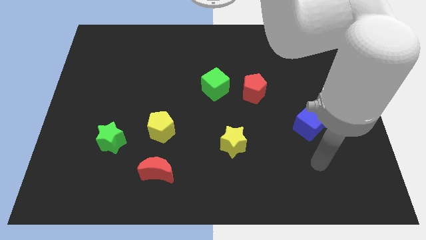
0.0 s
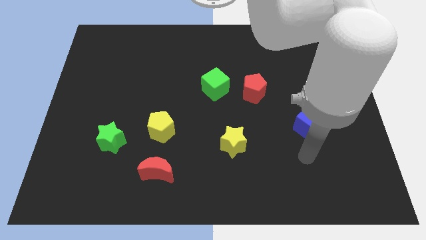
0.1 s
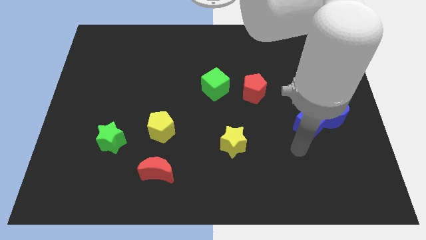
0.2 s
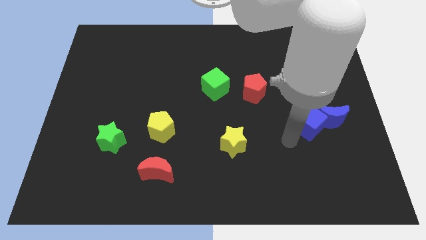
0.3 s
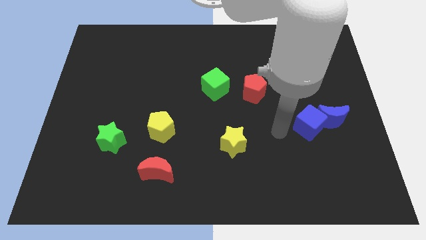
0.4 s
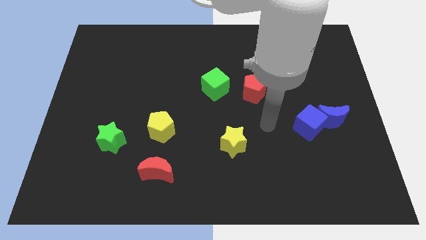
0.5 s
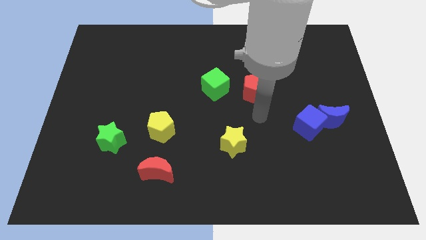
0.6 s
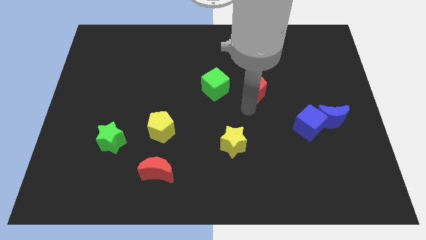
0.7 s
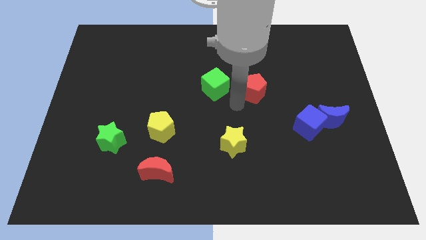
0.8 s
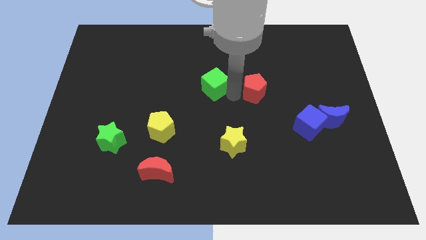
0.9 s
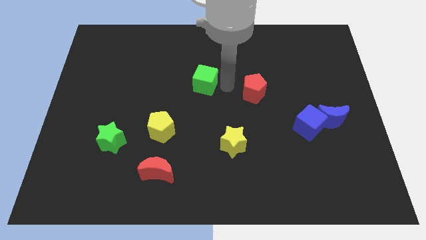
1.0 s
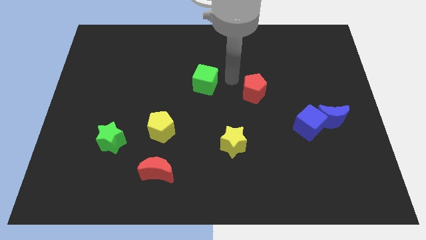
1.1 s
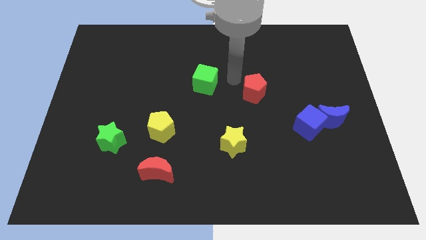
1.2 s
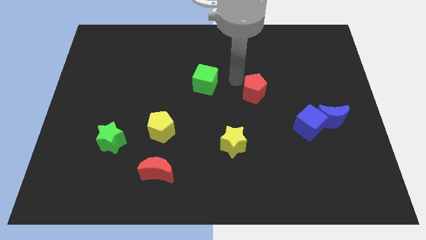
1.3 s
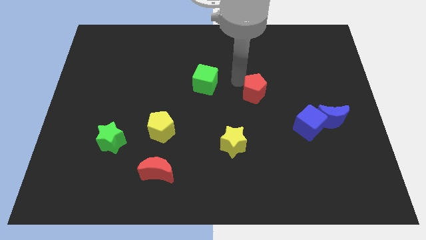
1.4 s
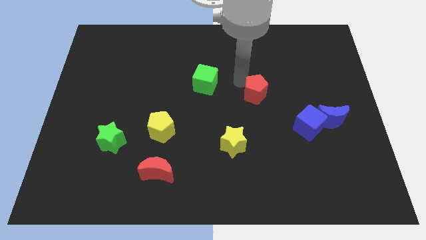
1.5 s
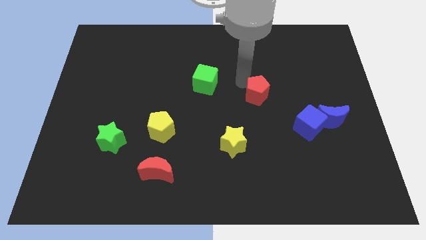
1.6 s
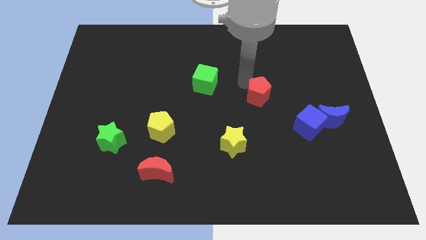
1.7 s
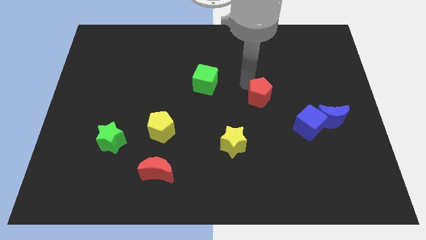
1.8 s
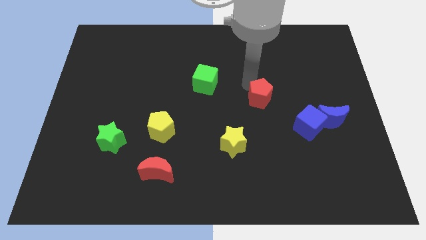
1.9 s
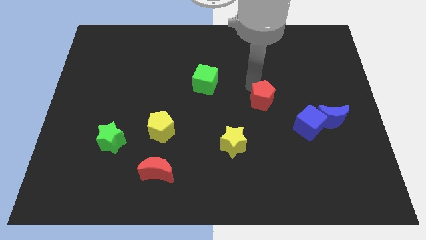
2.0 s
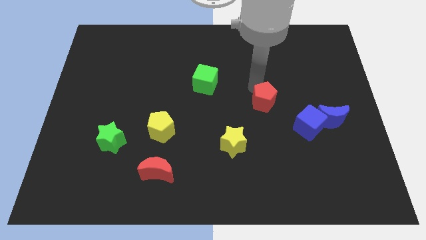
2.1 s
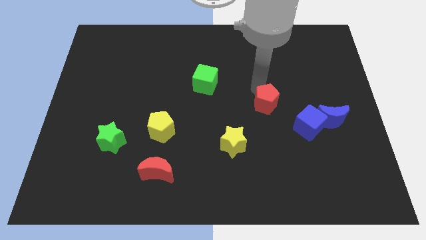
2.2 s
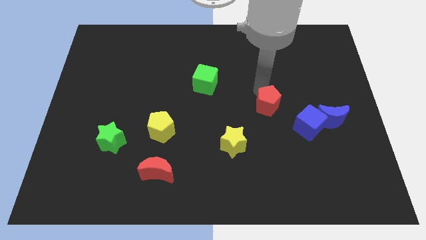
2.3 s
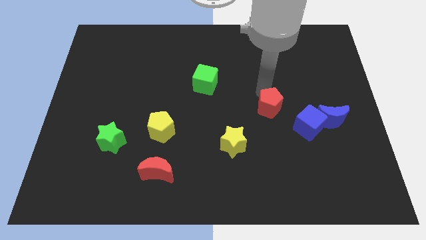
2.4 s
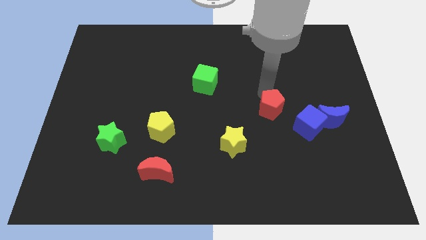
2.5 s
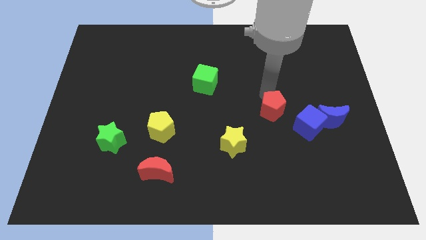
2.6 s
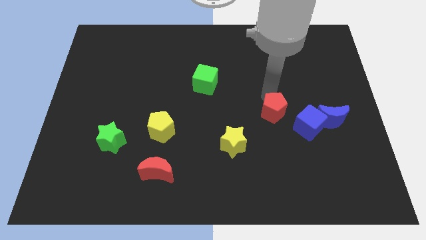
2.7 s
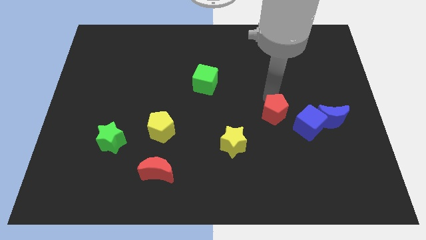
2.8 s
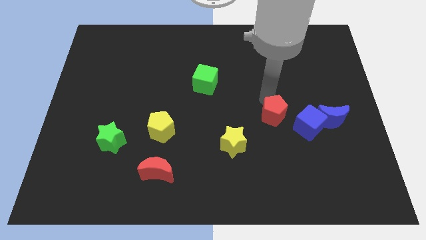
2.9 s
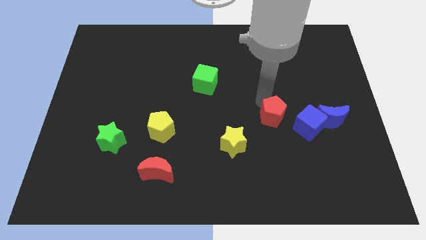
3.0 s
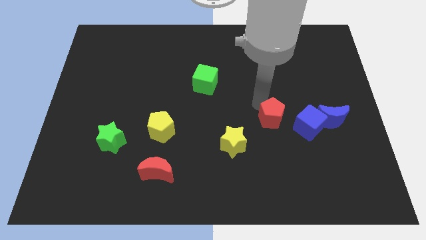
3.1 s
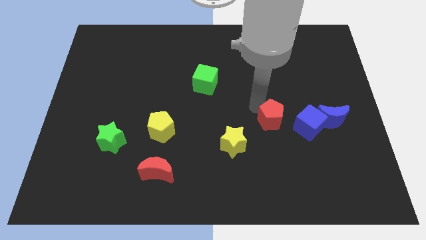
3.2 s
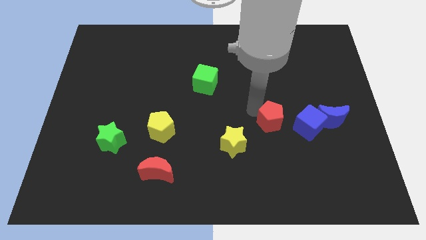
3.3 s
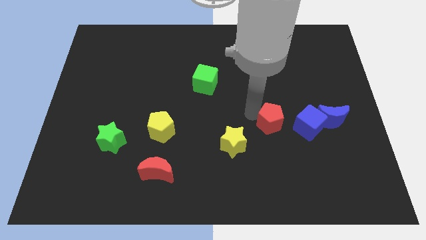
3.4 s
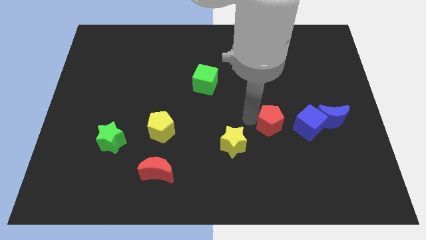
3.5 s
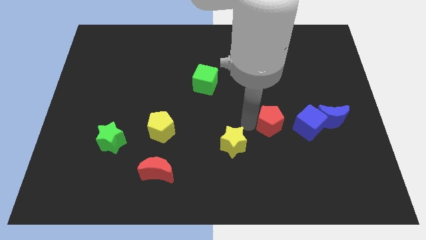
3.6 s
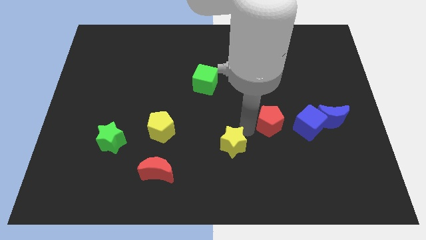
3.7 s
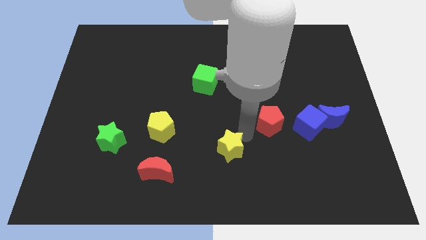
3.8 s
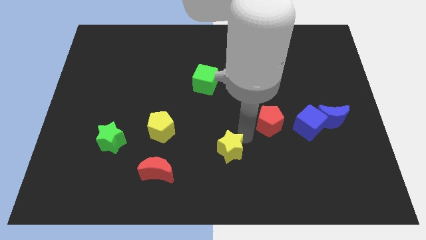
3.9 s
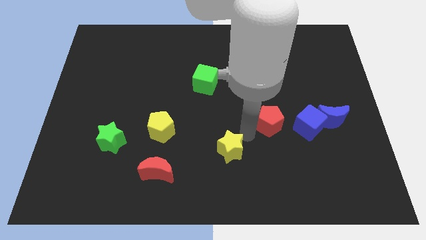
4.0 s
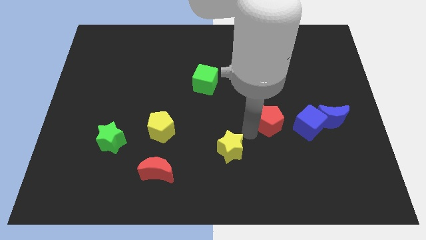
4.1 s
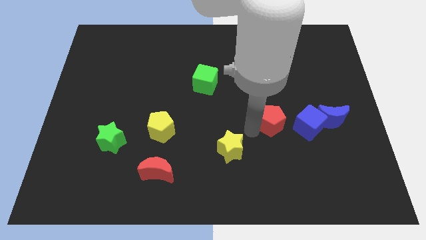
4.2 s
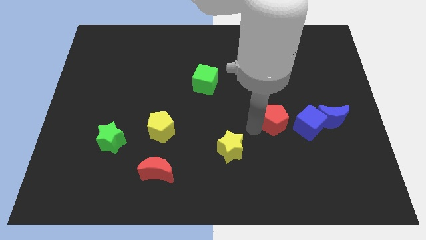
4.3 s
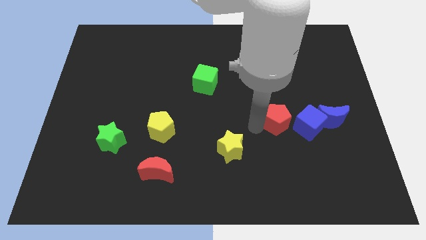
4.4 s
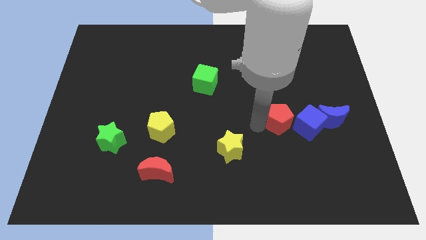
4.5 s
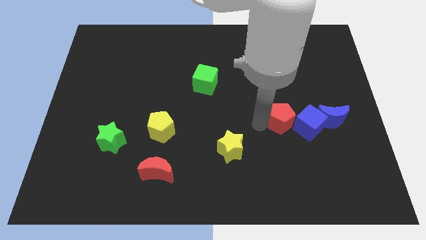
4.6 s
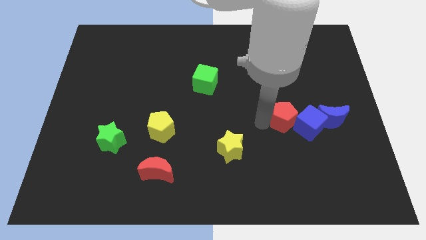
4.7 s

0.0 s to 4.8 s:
put the red pentagon close to the blue cube

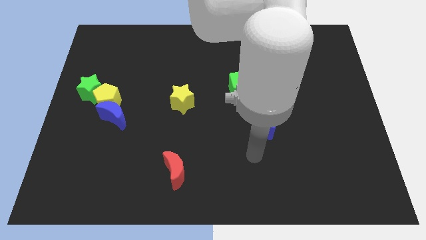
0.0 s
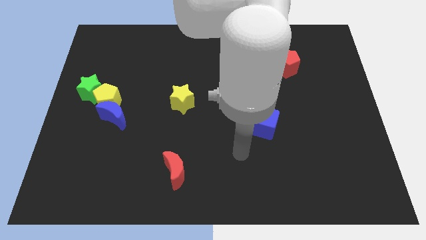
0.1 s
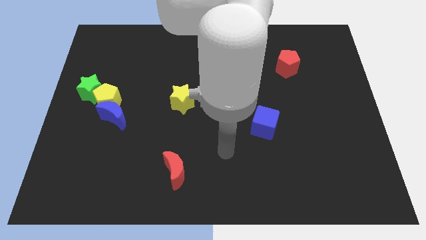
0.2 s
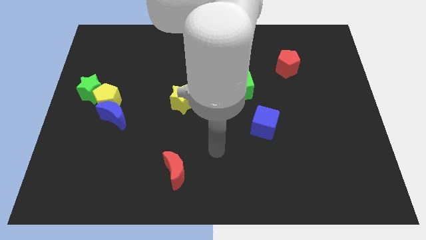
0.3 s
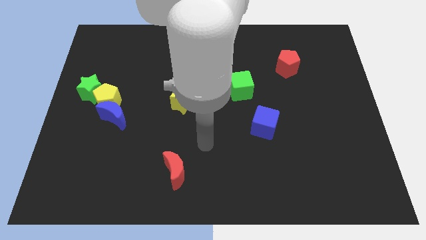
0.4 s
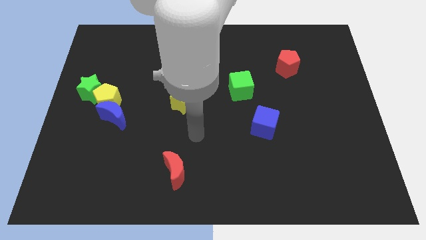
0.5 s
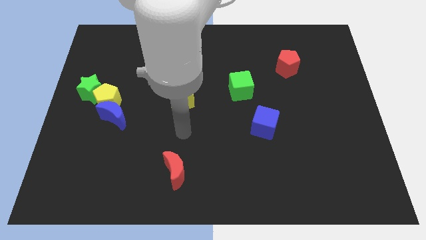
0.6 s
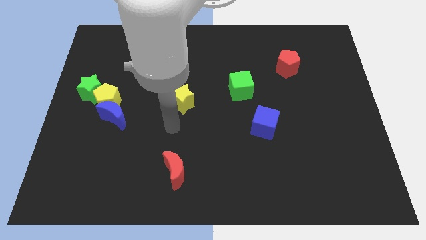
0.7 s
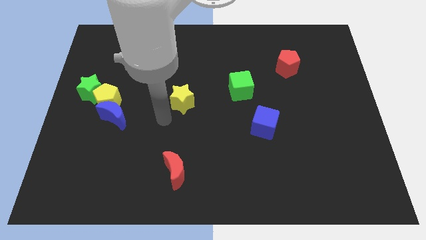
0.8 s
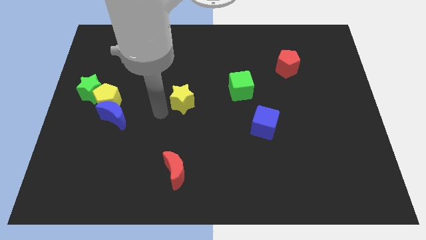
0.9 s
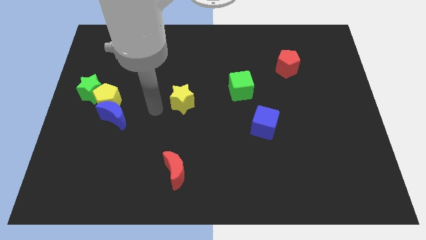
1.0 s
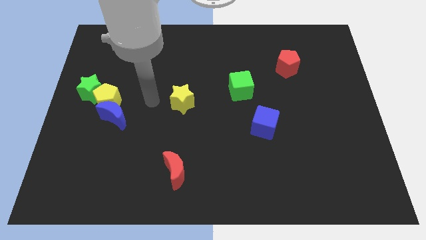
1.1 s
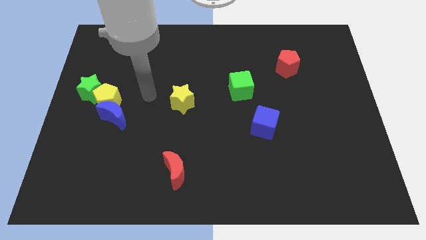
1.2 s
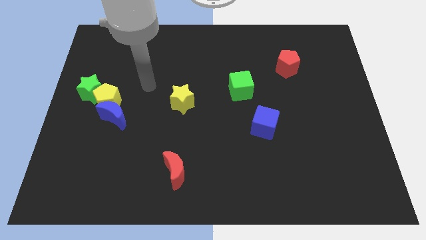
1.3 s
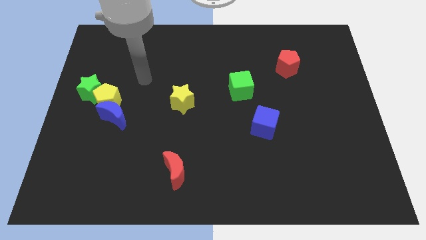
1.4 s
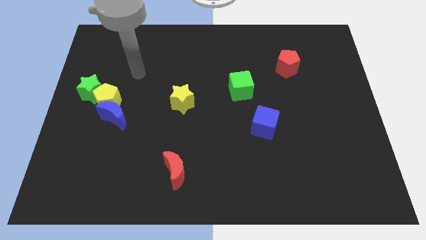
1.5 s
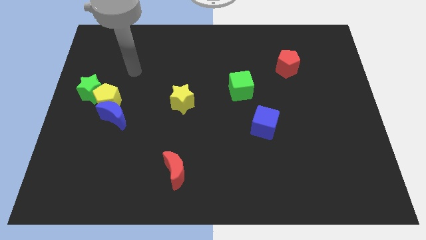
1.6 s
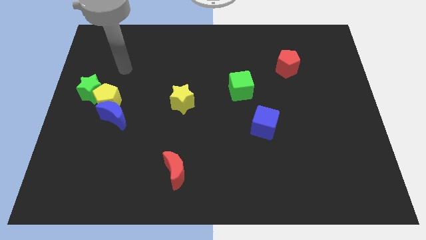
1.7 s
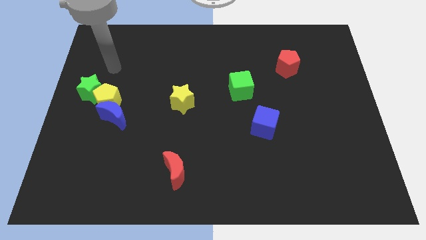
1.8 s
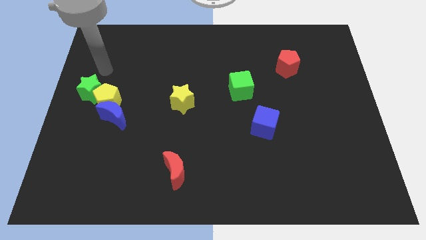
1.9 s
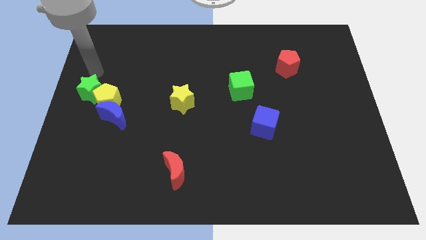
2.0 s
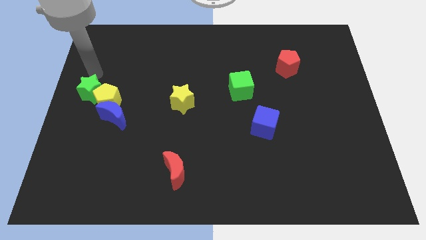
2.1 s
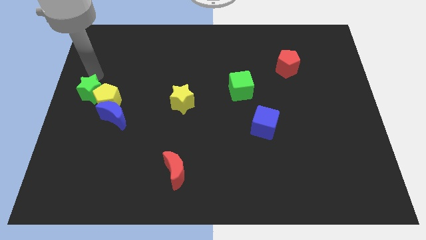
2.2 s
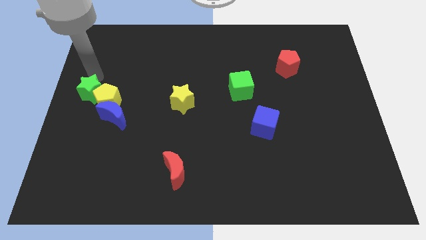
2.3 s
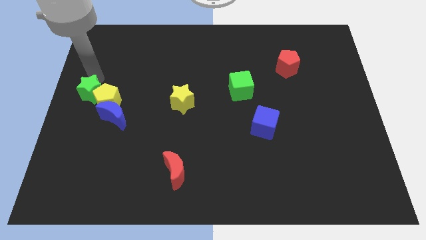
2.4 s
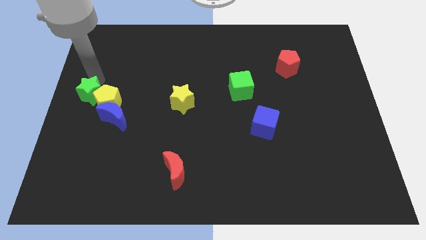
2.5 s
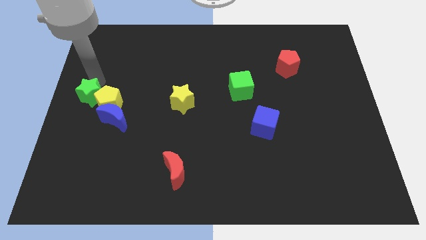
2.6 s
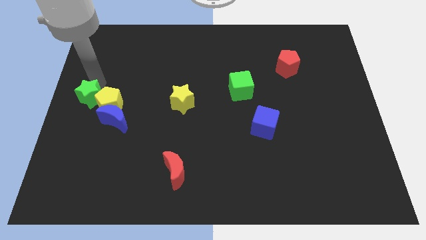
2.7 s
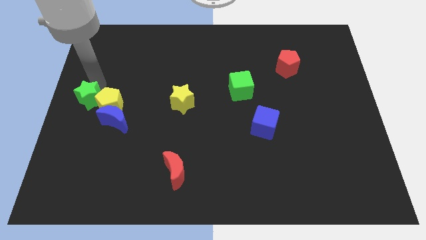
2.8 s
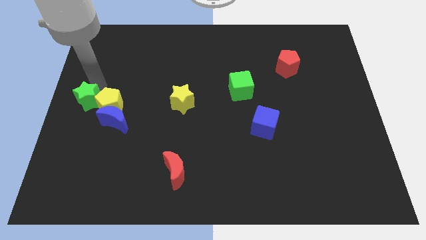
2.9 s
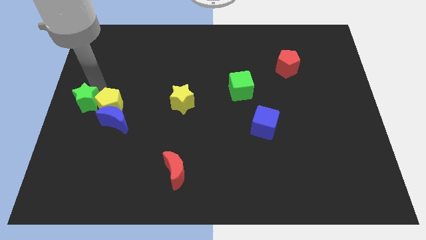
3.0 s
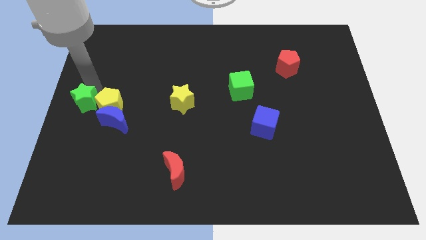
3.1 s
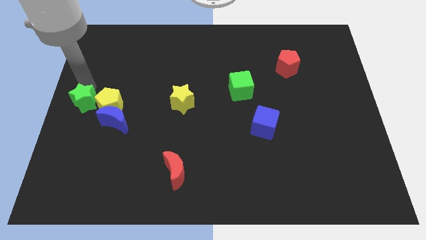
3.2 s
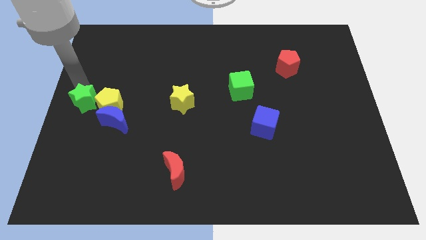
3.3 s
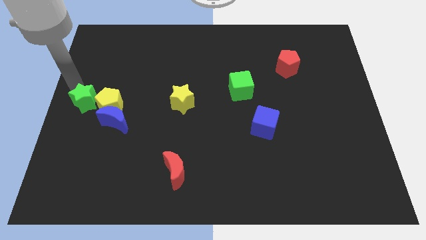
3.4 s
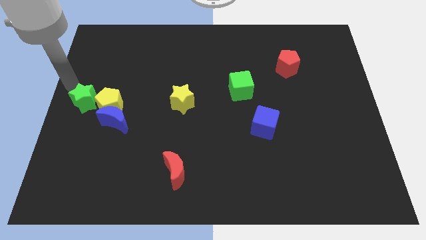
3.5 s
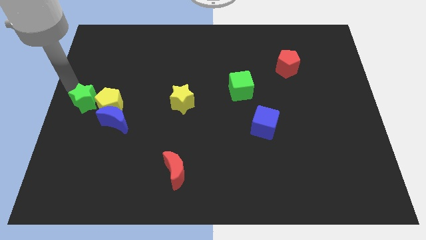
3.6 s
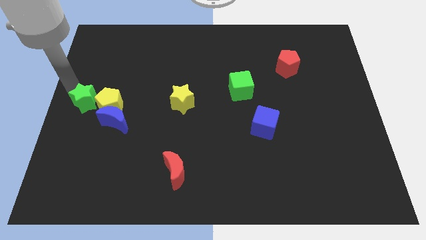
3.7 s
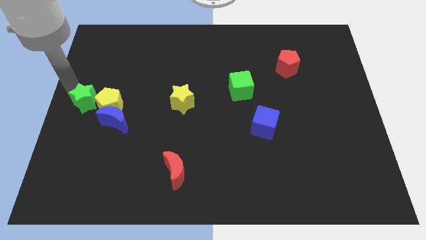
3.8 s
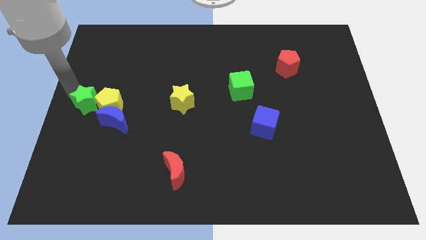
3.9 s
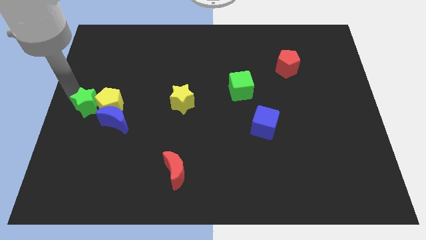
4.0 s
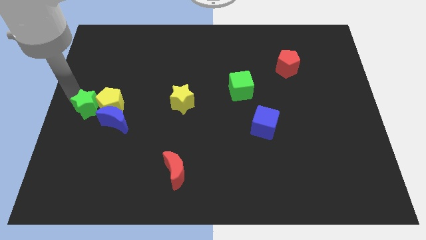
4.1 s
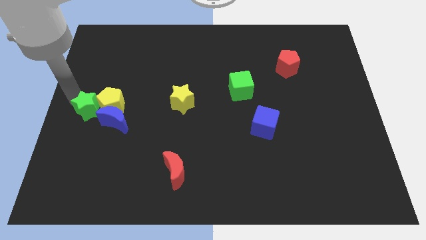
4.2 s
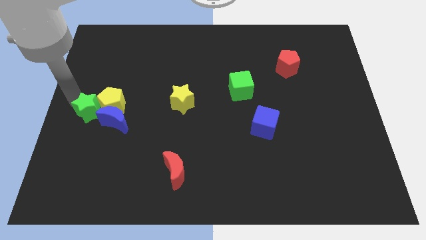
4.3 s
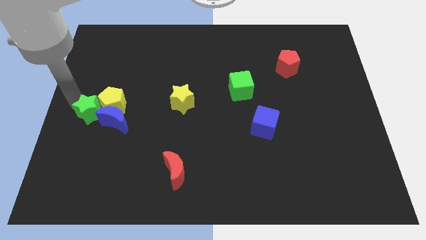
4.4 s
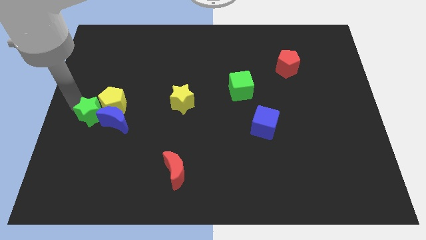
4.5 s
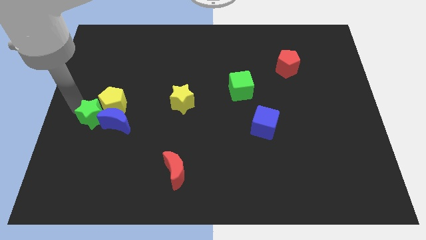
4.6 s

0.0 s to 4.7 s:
move the green star to the blue moon
